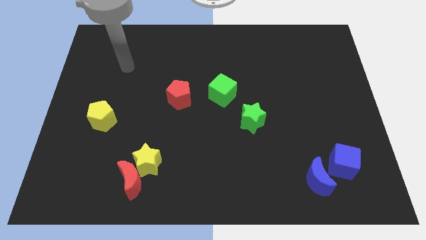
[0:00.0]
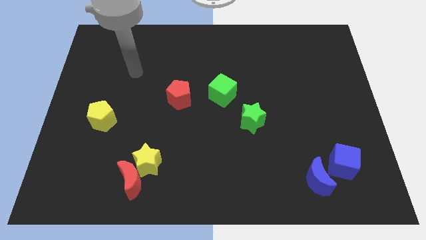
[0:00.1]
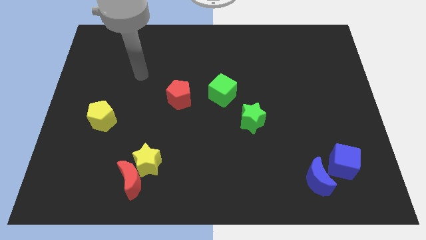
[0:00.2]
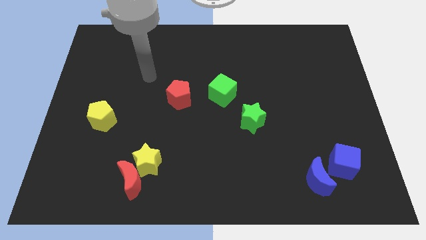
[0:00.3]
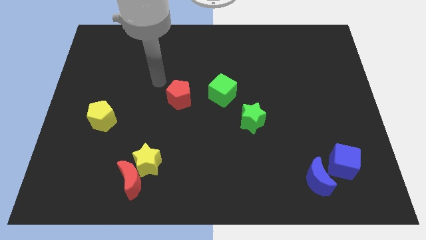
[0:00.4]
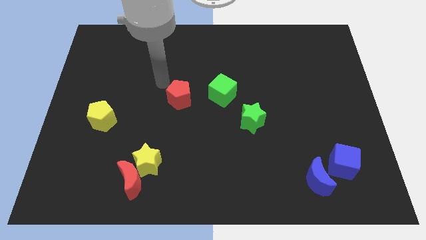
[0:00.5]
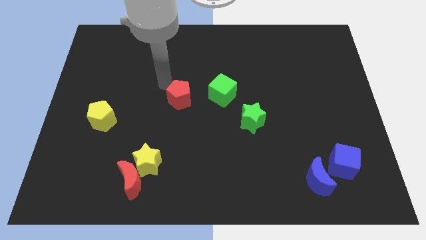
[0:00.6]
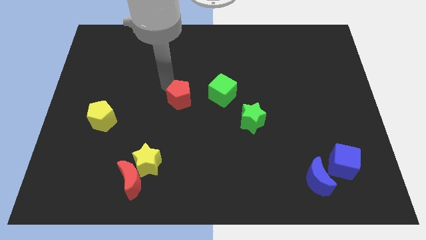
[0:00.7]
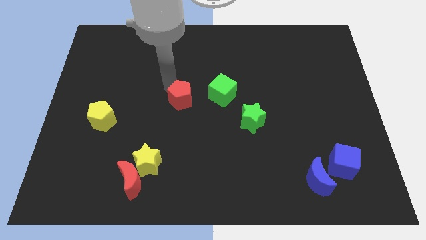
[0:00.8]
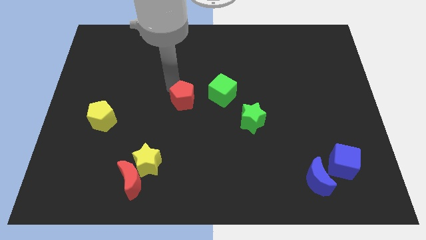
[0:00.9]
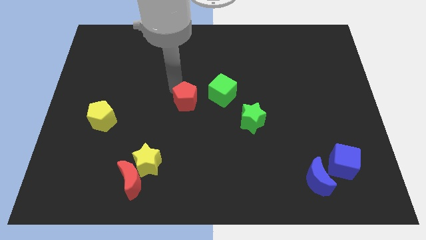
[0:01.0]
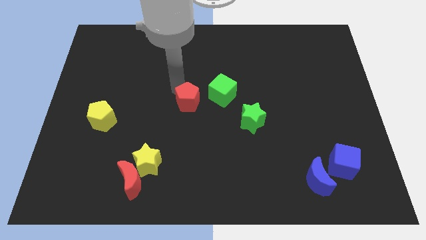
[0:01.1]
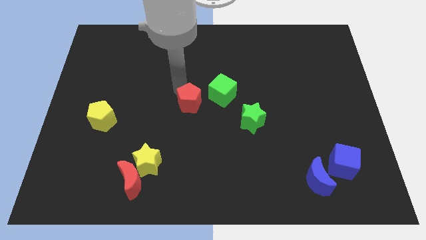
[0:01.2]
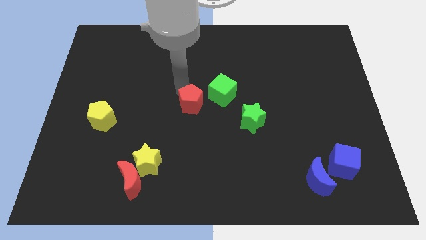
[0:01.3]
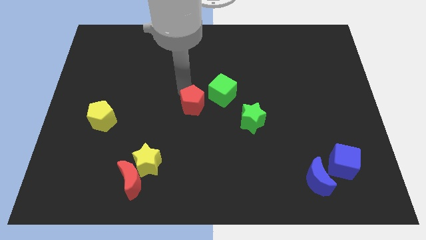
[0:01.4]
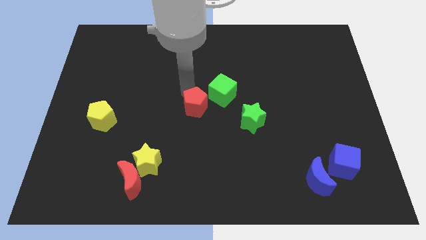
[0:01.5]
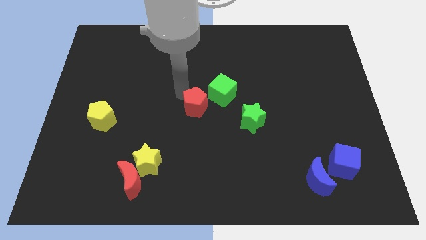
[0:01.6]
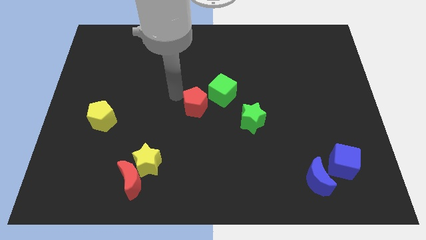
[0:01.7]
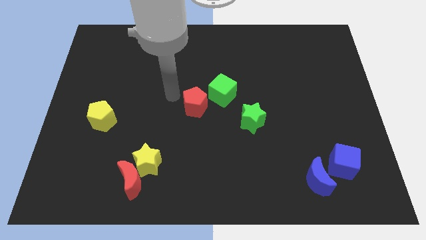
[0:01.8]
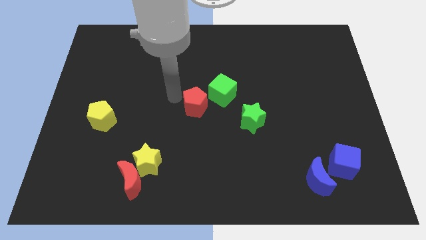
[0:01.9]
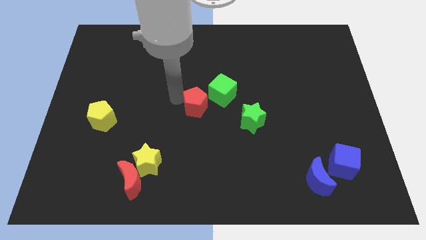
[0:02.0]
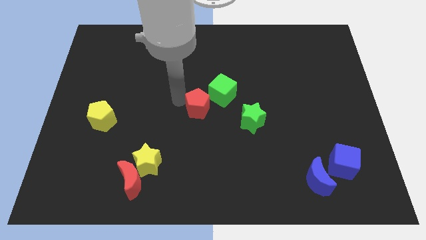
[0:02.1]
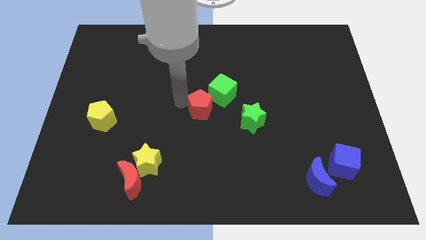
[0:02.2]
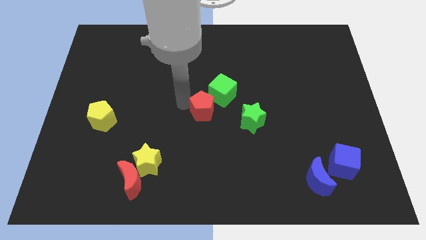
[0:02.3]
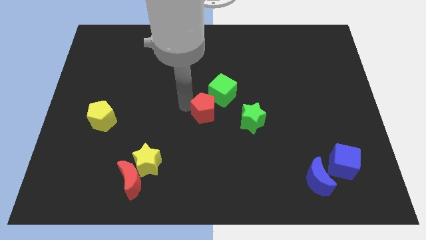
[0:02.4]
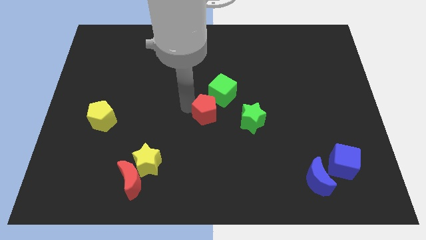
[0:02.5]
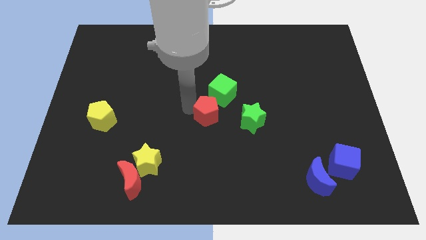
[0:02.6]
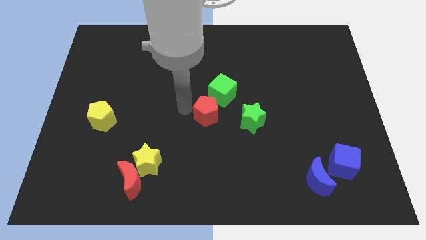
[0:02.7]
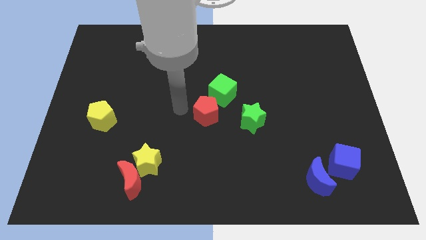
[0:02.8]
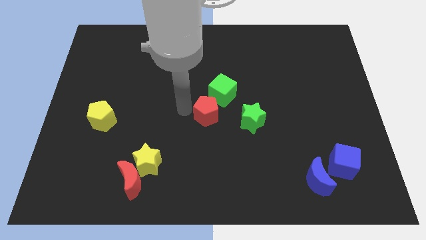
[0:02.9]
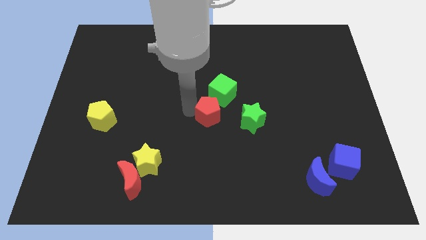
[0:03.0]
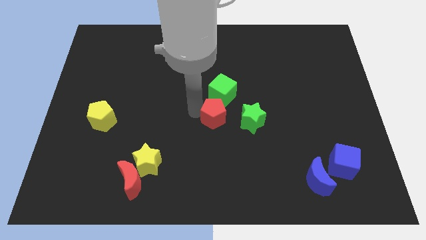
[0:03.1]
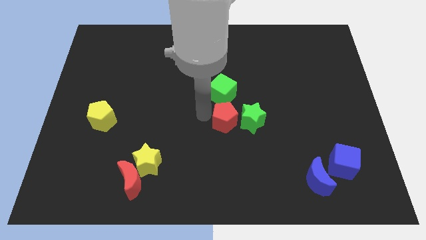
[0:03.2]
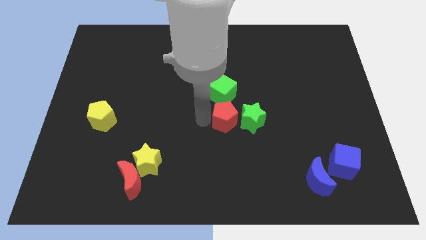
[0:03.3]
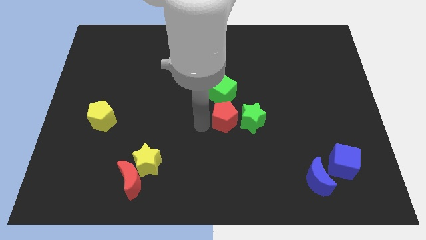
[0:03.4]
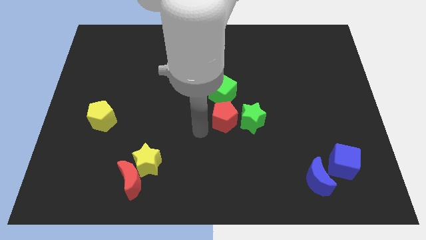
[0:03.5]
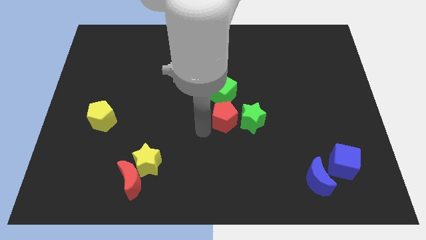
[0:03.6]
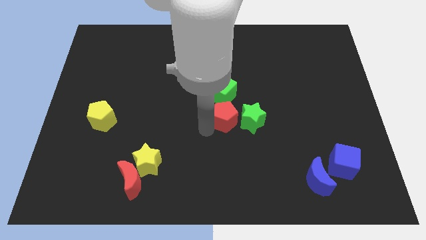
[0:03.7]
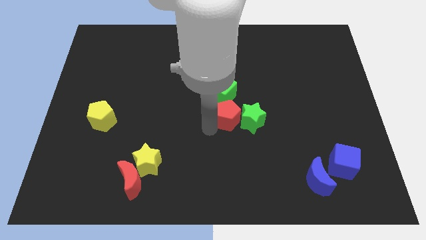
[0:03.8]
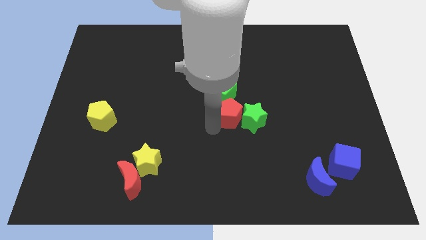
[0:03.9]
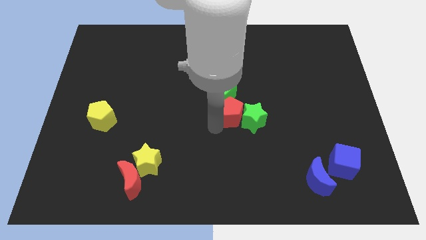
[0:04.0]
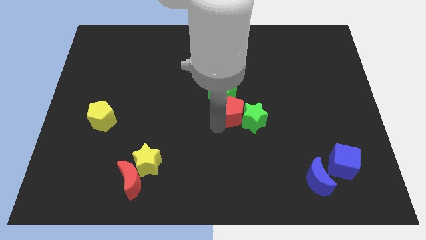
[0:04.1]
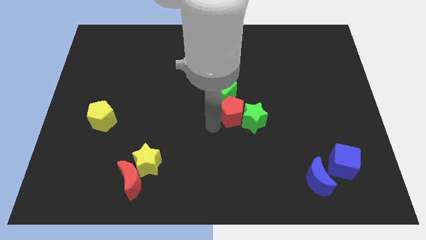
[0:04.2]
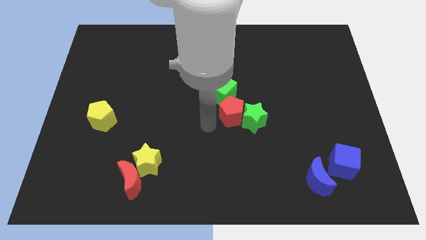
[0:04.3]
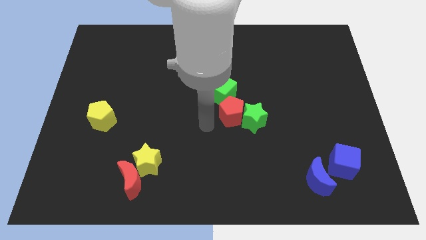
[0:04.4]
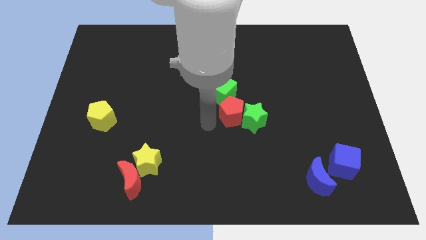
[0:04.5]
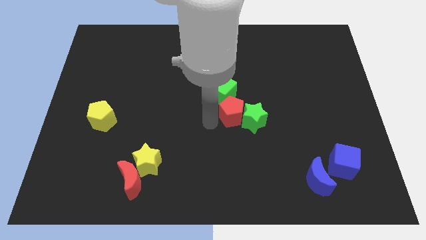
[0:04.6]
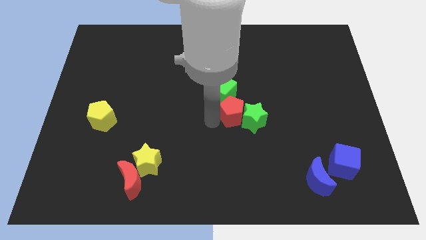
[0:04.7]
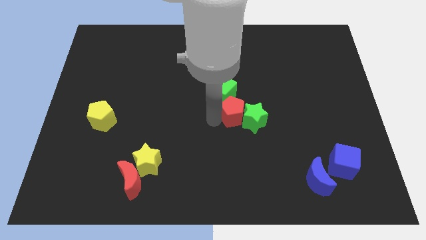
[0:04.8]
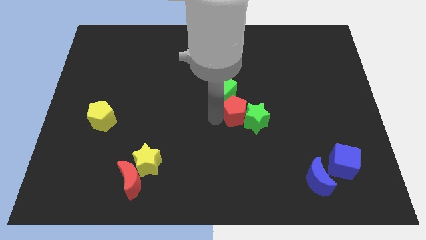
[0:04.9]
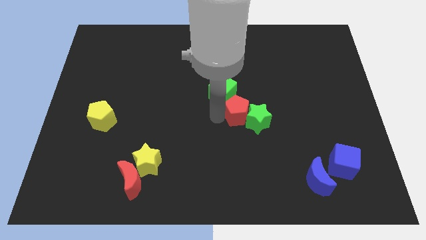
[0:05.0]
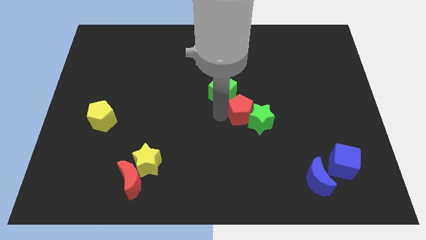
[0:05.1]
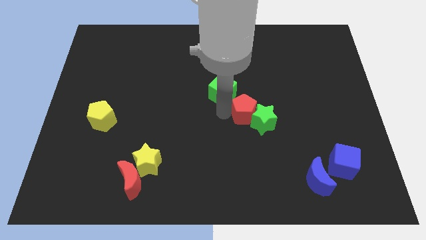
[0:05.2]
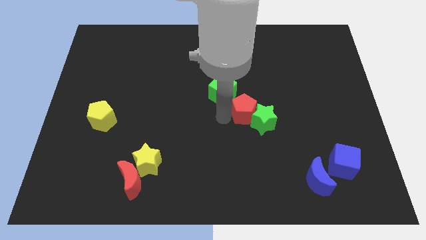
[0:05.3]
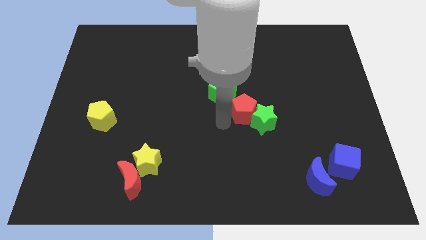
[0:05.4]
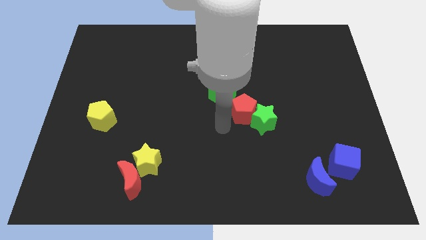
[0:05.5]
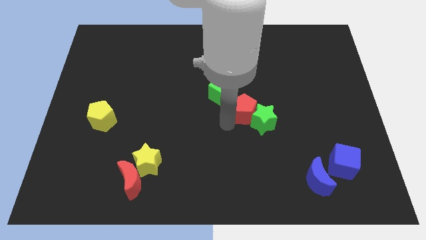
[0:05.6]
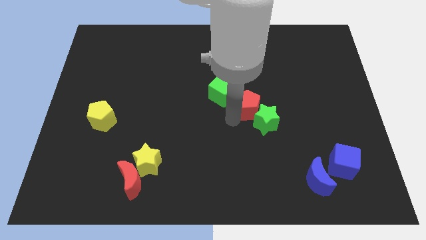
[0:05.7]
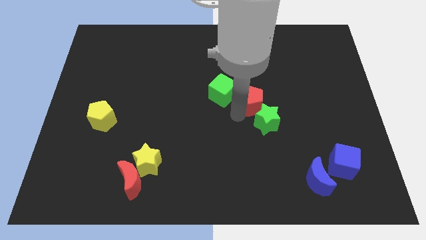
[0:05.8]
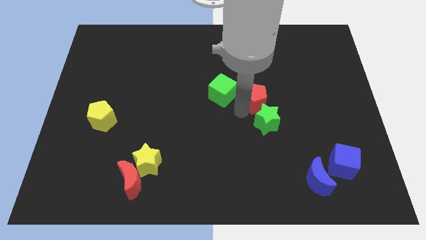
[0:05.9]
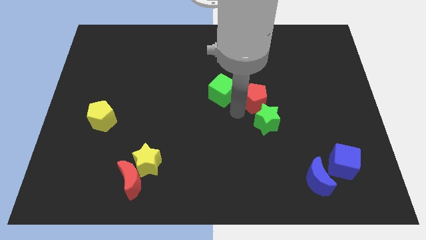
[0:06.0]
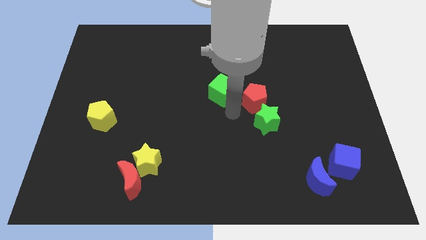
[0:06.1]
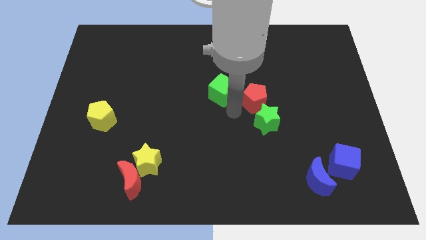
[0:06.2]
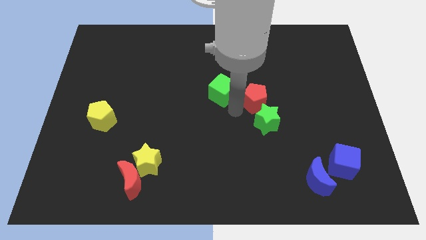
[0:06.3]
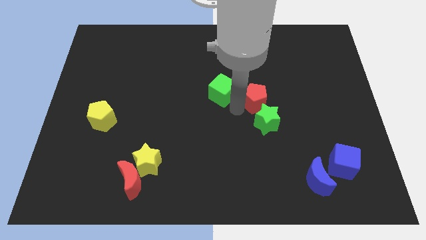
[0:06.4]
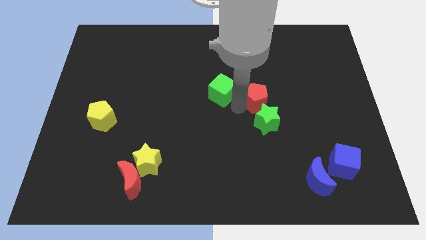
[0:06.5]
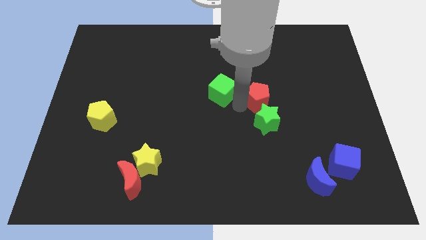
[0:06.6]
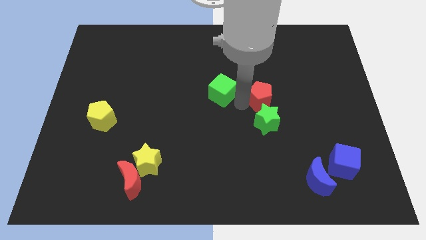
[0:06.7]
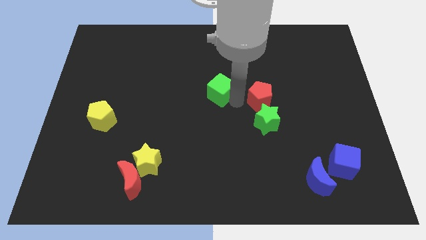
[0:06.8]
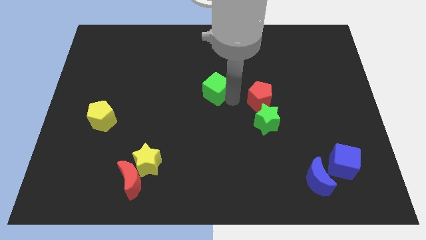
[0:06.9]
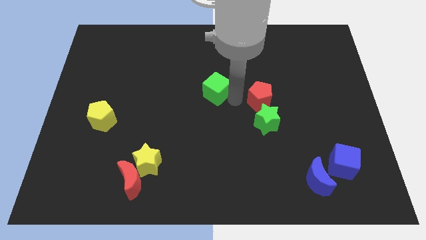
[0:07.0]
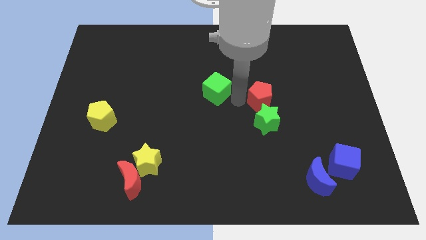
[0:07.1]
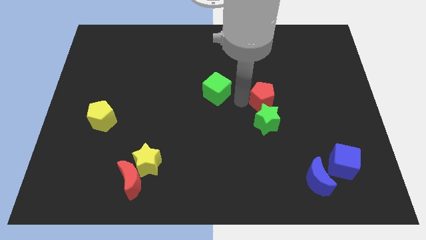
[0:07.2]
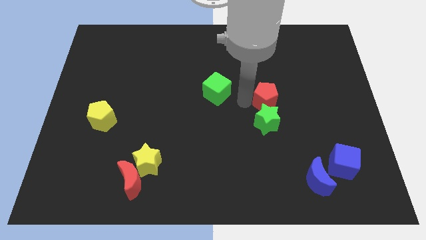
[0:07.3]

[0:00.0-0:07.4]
push the red pentagon right

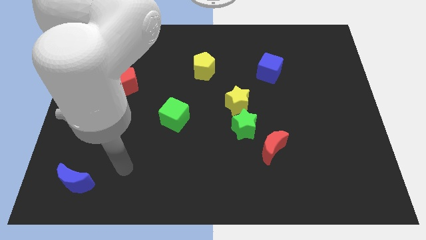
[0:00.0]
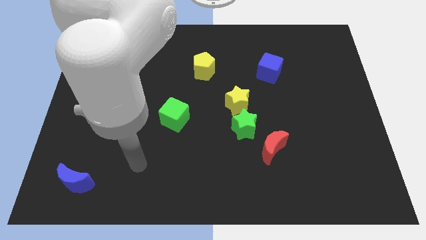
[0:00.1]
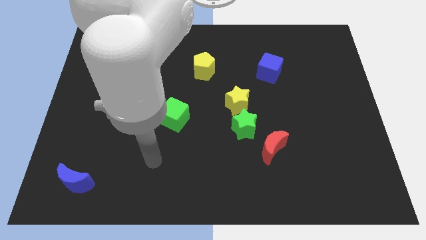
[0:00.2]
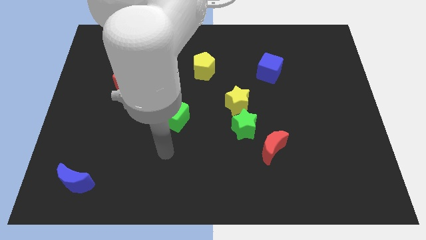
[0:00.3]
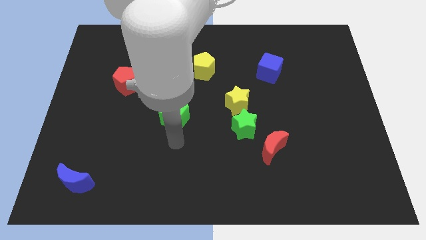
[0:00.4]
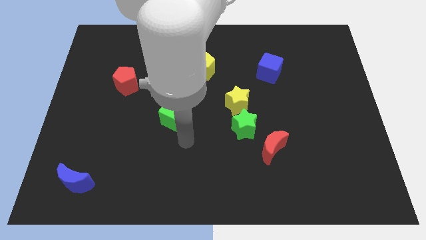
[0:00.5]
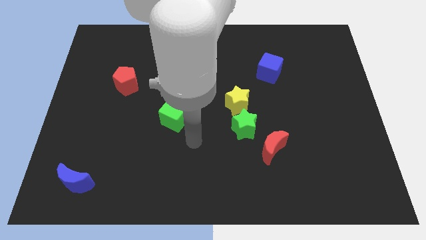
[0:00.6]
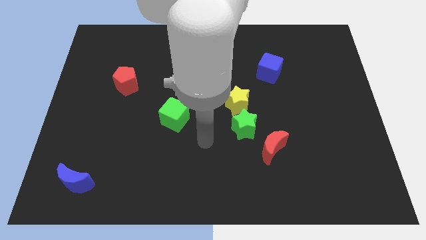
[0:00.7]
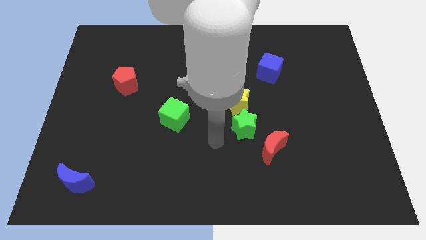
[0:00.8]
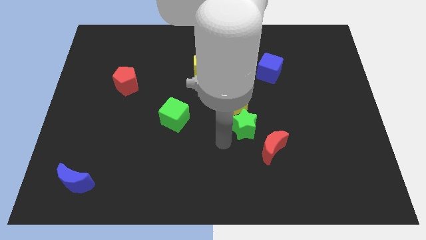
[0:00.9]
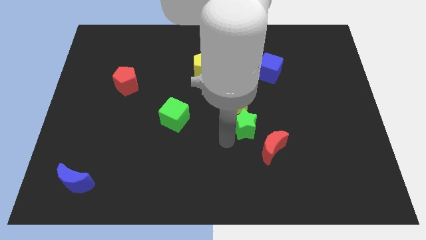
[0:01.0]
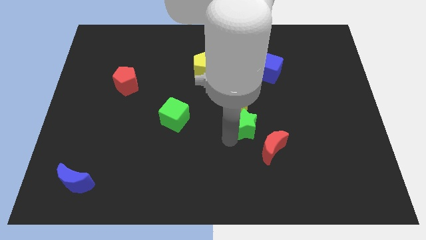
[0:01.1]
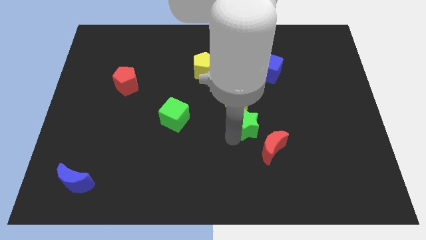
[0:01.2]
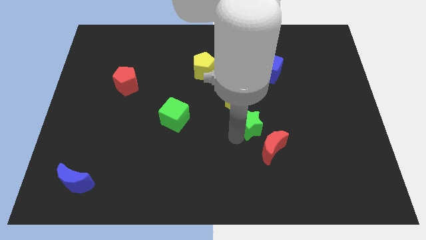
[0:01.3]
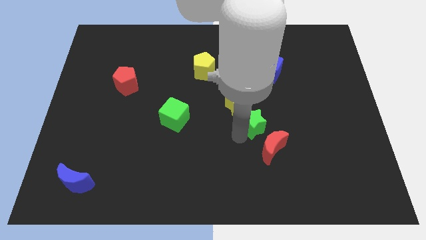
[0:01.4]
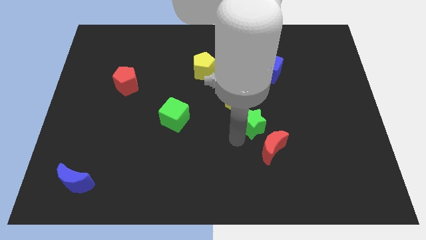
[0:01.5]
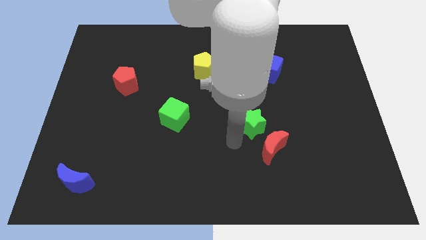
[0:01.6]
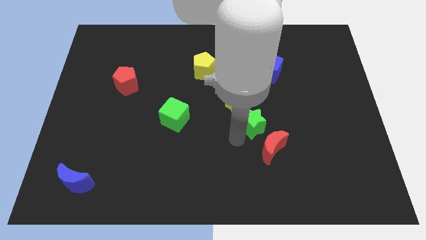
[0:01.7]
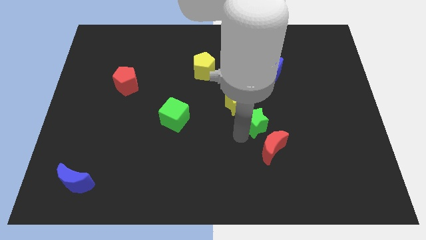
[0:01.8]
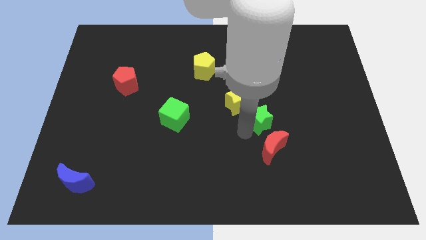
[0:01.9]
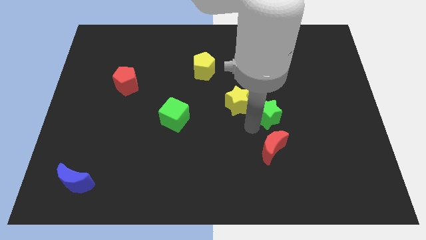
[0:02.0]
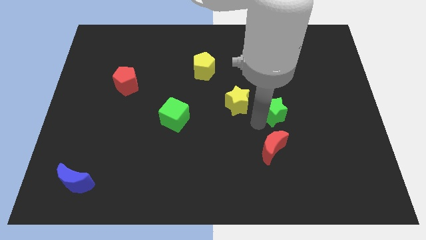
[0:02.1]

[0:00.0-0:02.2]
move the green star upwards and right somewhat
